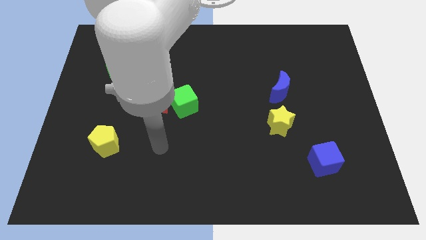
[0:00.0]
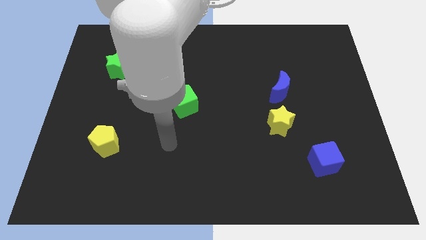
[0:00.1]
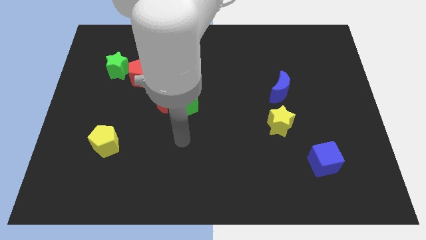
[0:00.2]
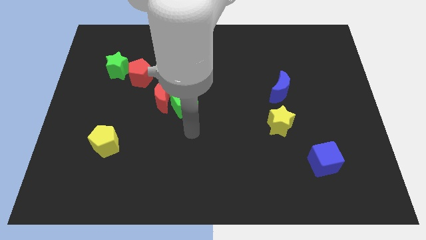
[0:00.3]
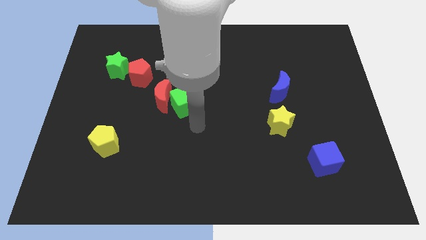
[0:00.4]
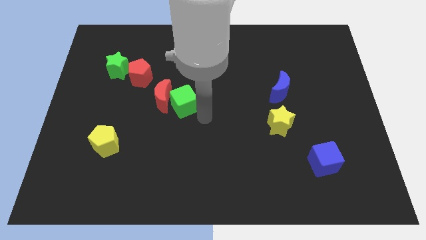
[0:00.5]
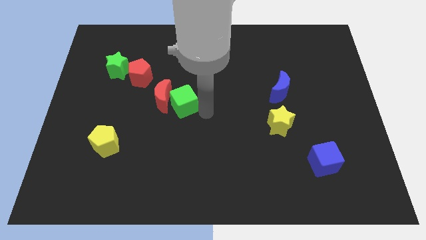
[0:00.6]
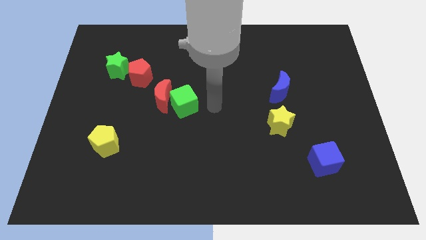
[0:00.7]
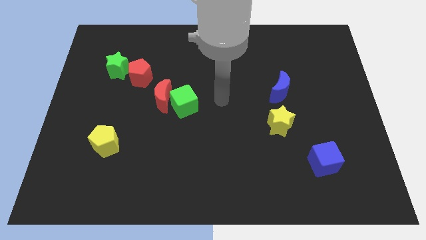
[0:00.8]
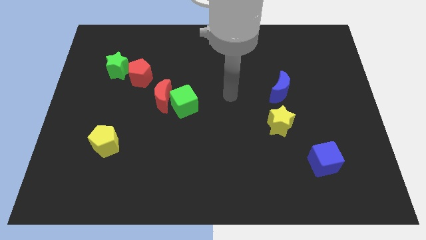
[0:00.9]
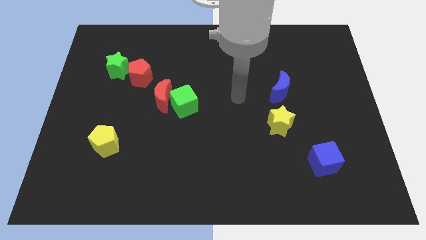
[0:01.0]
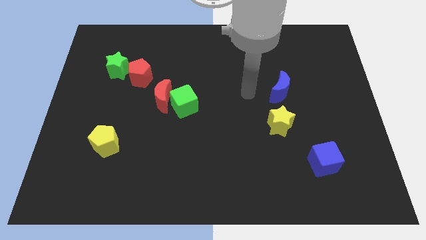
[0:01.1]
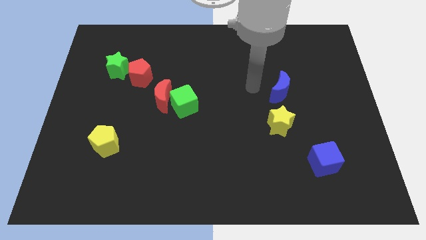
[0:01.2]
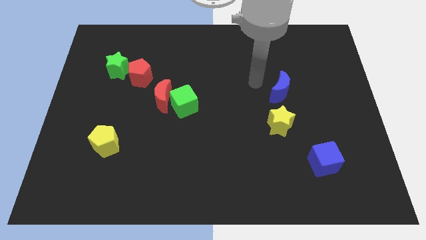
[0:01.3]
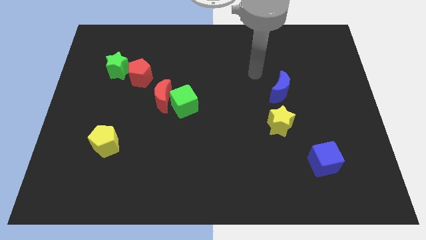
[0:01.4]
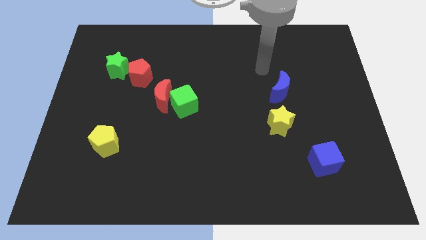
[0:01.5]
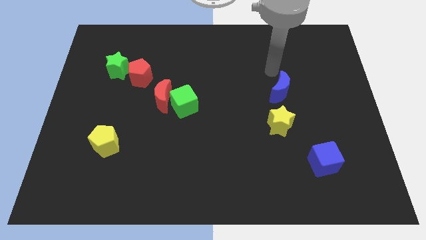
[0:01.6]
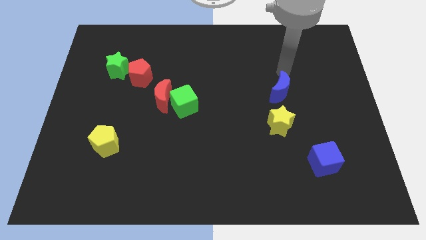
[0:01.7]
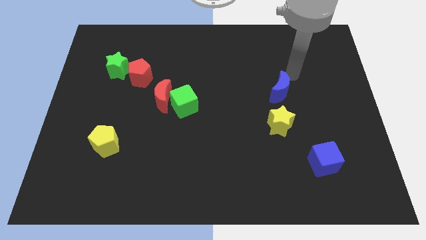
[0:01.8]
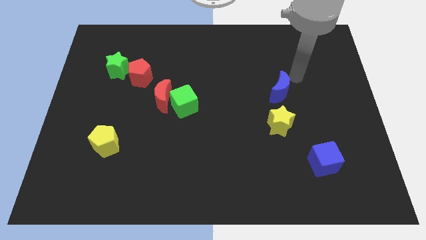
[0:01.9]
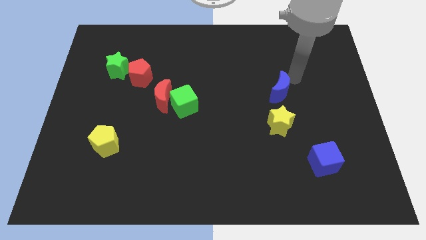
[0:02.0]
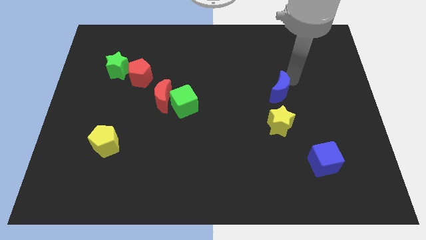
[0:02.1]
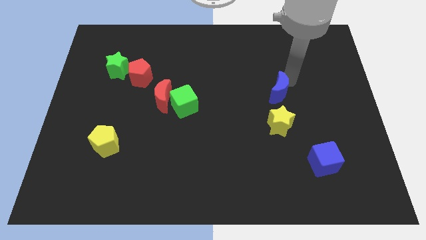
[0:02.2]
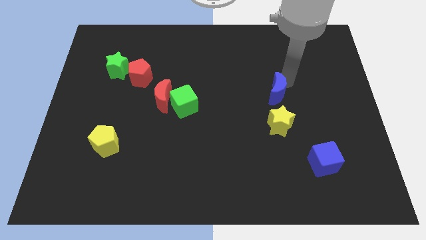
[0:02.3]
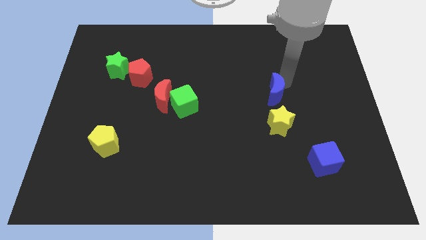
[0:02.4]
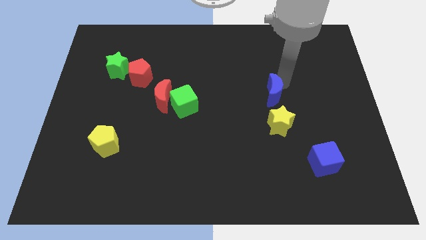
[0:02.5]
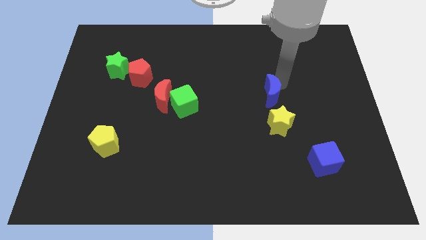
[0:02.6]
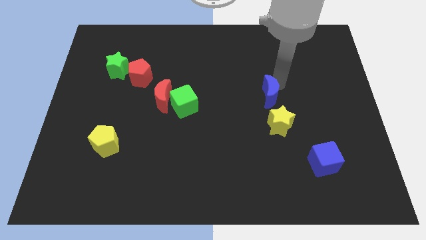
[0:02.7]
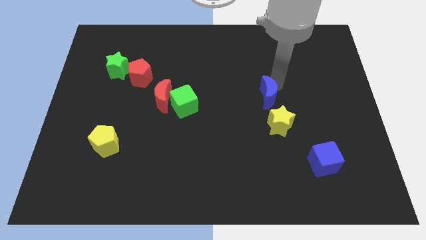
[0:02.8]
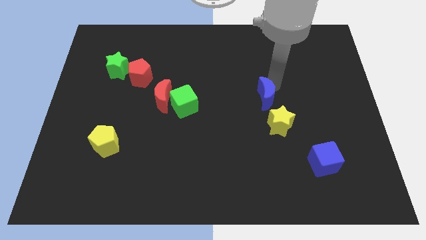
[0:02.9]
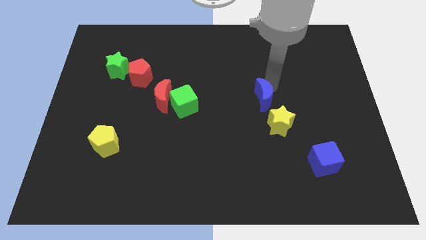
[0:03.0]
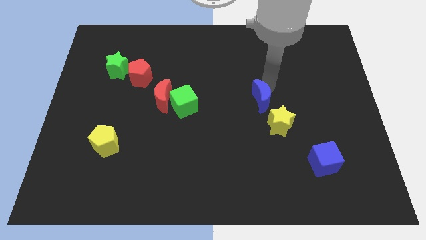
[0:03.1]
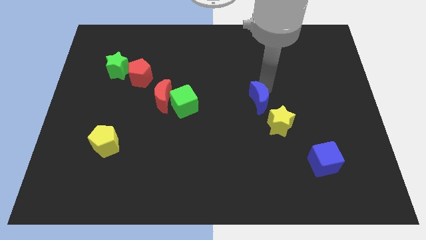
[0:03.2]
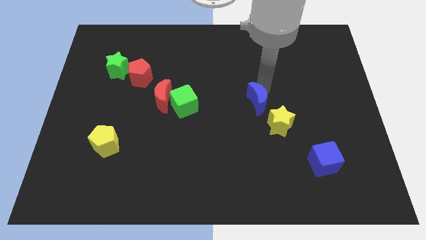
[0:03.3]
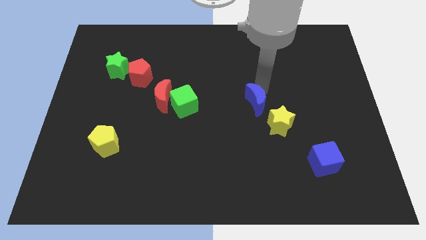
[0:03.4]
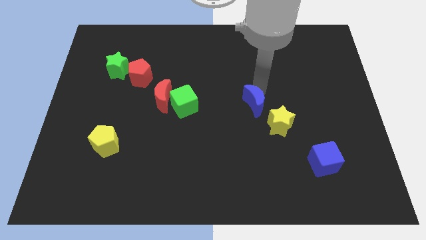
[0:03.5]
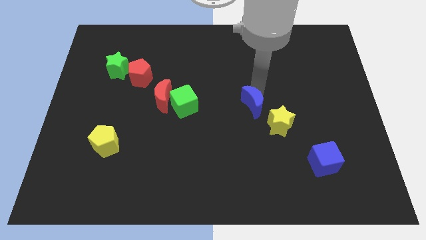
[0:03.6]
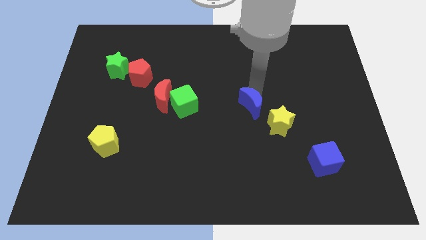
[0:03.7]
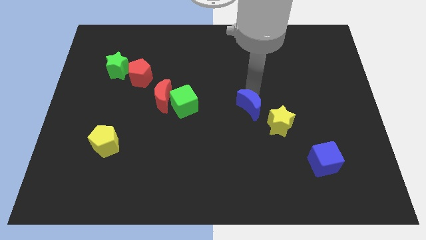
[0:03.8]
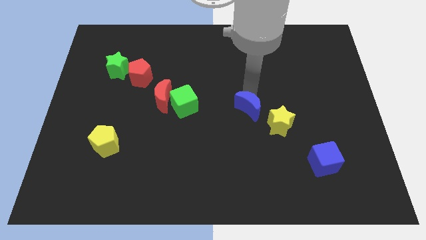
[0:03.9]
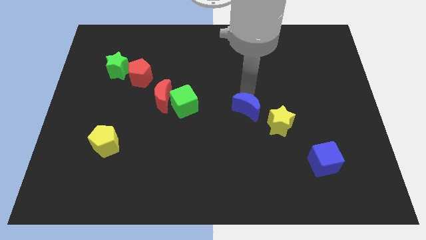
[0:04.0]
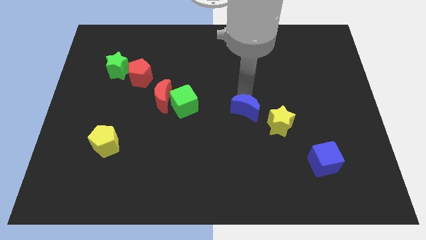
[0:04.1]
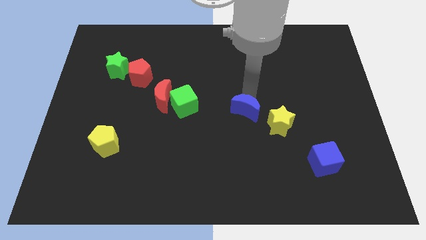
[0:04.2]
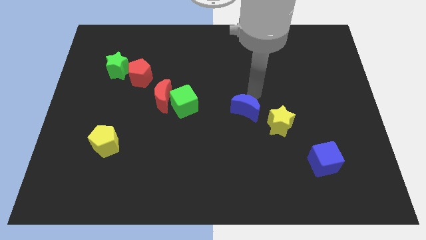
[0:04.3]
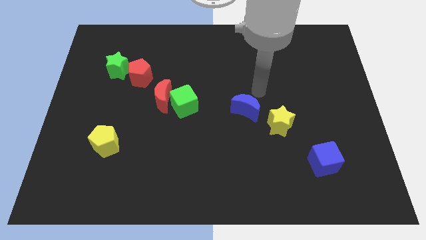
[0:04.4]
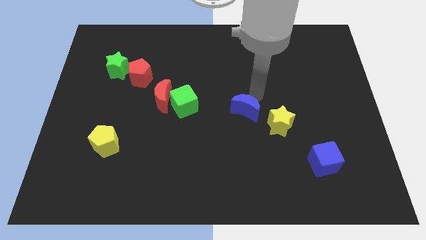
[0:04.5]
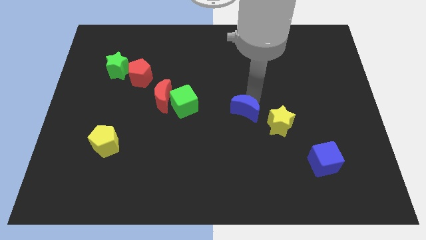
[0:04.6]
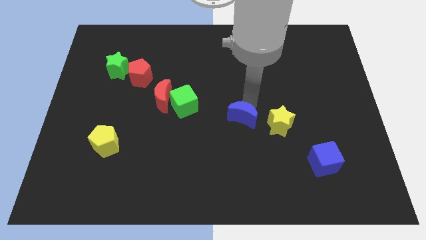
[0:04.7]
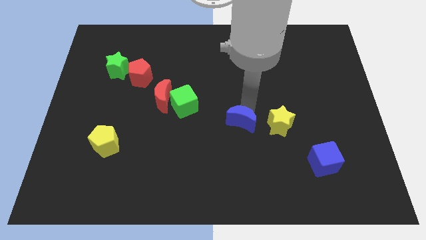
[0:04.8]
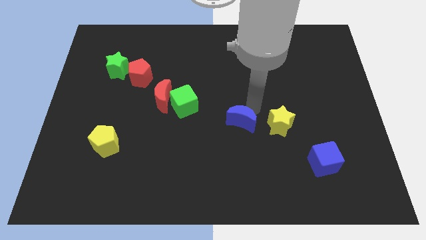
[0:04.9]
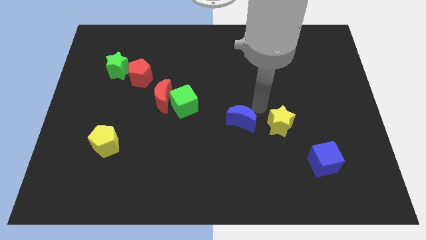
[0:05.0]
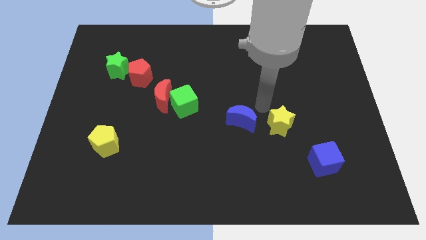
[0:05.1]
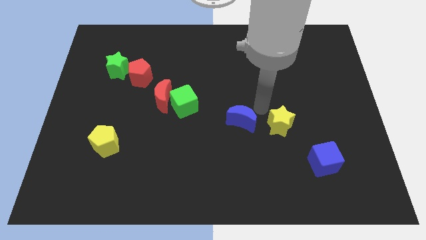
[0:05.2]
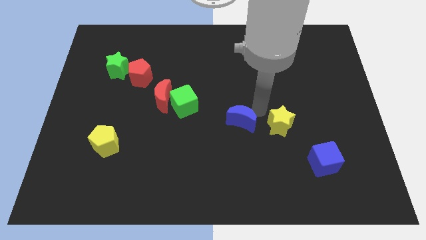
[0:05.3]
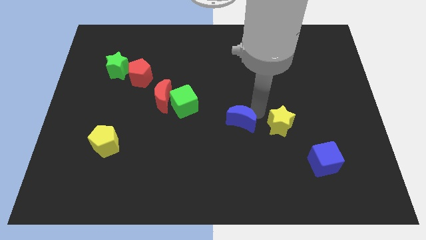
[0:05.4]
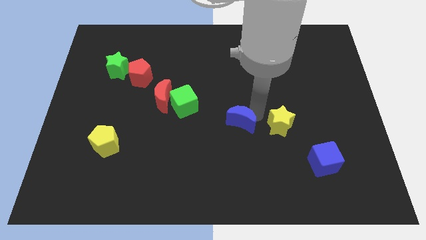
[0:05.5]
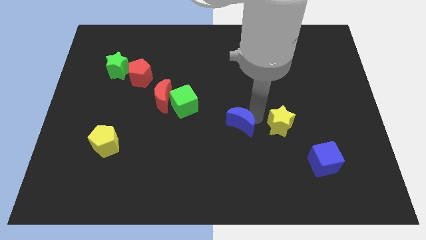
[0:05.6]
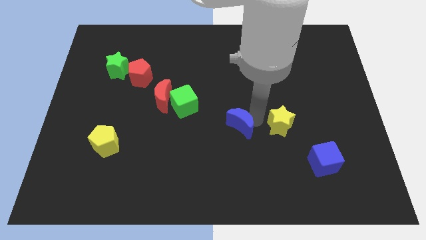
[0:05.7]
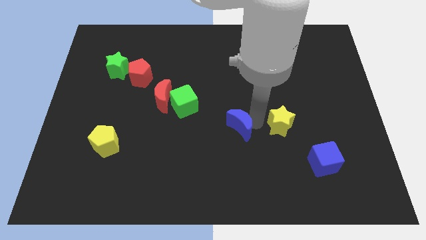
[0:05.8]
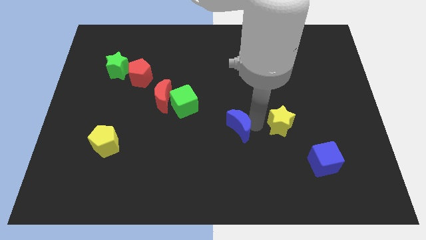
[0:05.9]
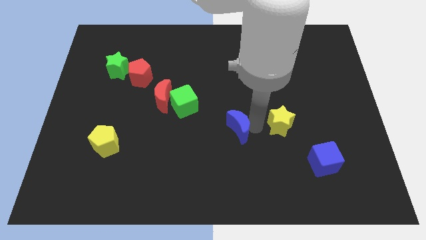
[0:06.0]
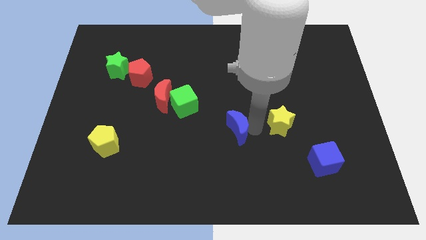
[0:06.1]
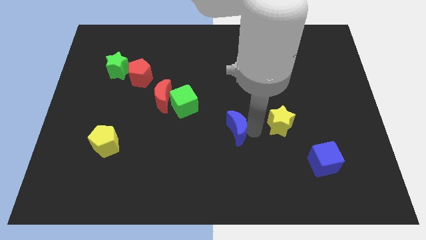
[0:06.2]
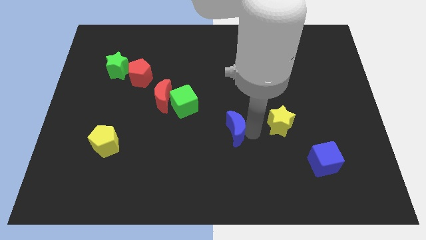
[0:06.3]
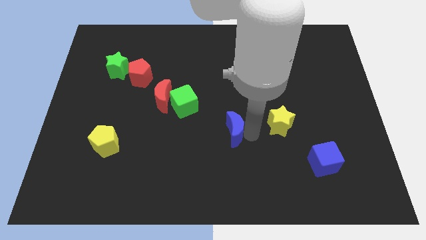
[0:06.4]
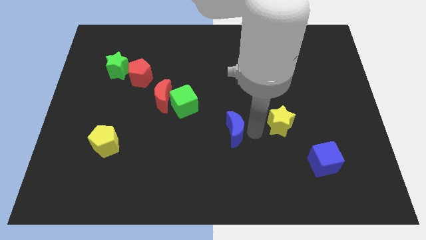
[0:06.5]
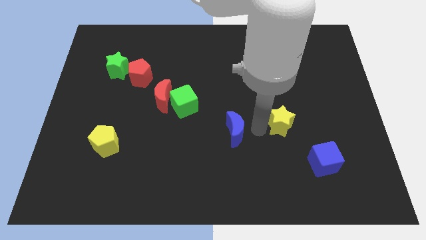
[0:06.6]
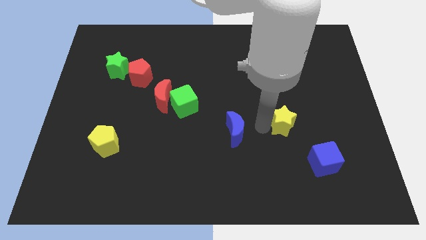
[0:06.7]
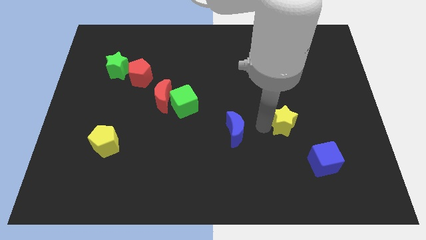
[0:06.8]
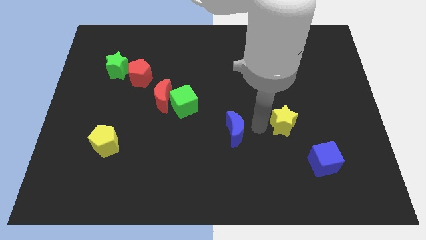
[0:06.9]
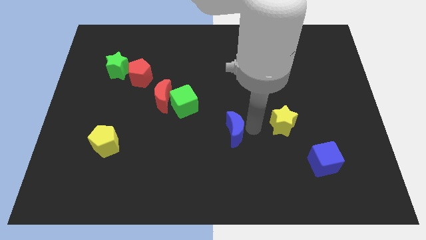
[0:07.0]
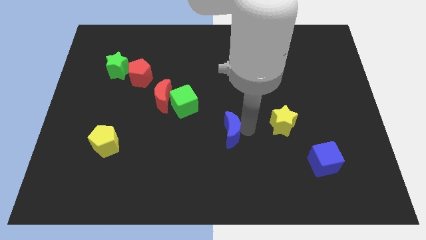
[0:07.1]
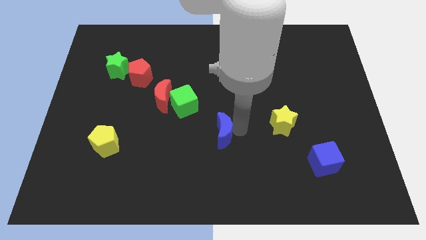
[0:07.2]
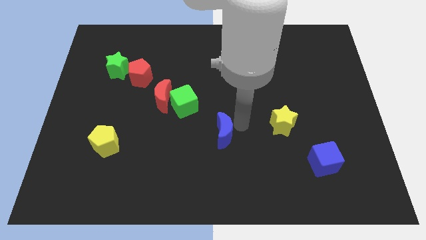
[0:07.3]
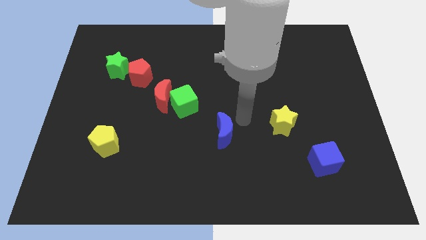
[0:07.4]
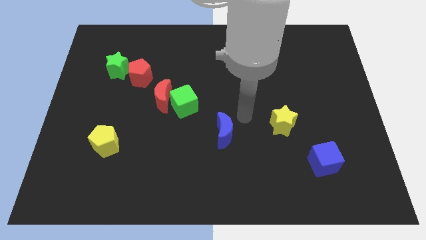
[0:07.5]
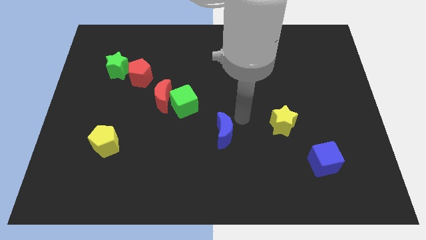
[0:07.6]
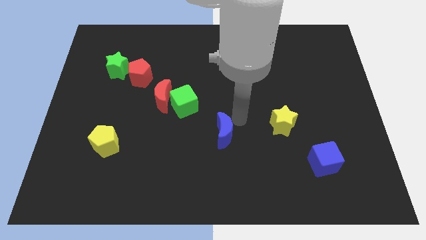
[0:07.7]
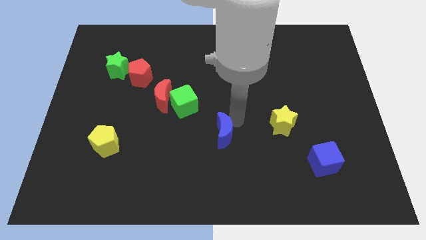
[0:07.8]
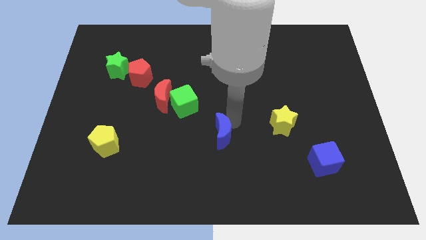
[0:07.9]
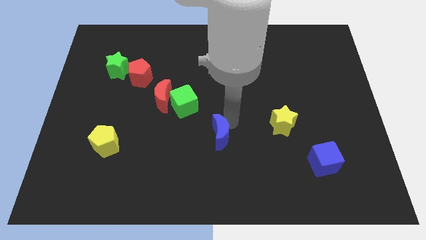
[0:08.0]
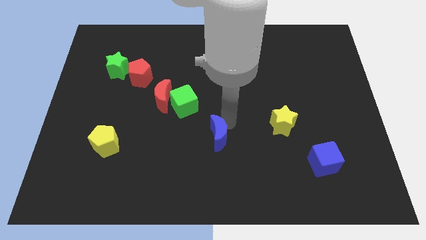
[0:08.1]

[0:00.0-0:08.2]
slide the blue moon downwards and then to the left

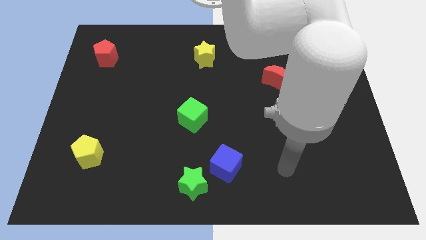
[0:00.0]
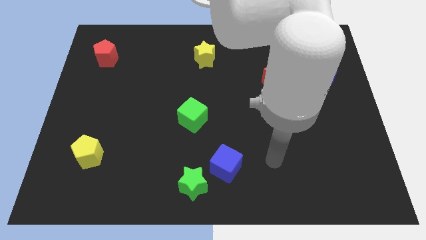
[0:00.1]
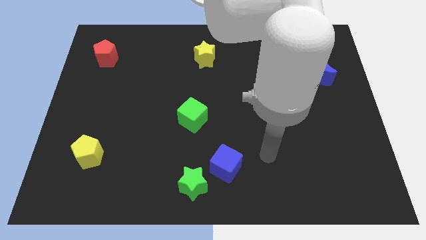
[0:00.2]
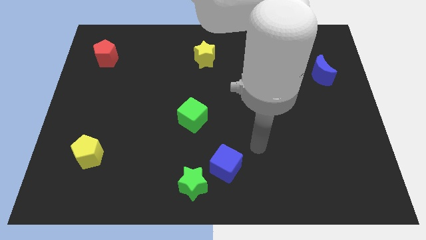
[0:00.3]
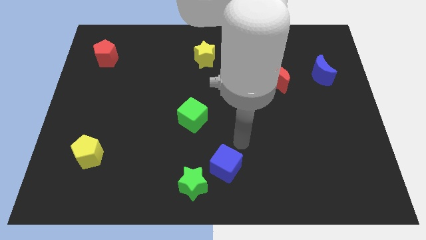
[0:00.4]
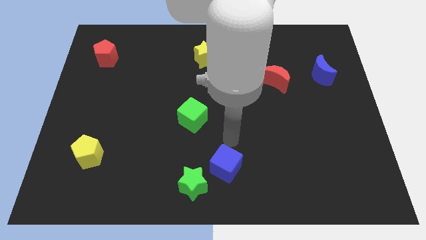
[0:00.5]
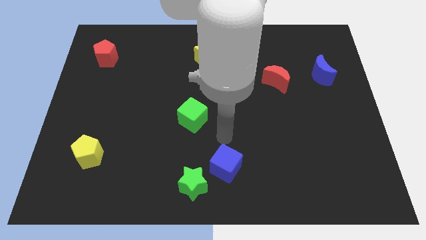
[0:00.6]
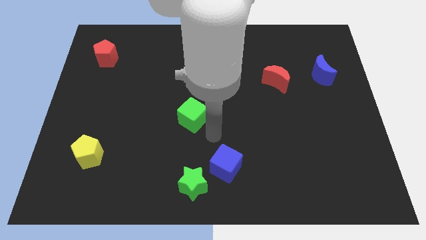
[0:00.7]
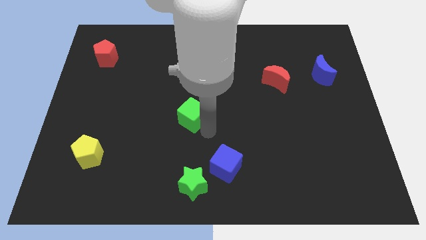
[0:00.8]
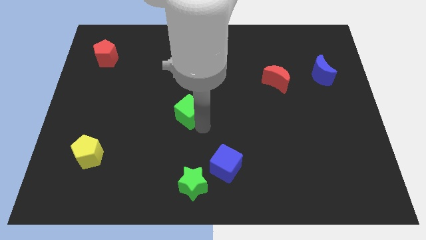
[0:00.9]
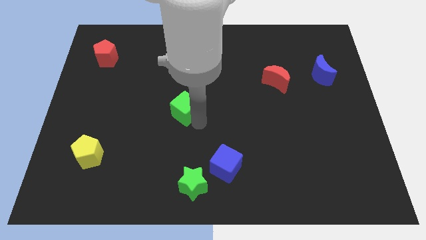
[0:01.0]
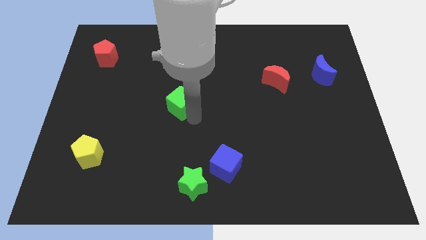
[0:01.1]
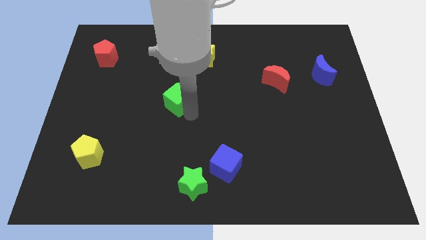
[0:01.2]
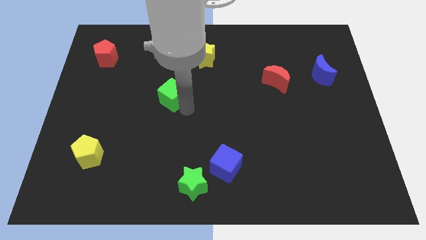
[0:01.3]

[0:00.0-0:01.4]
slide the green cube slightly upwards and left
